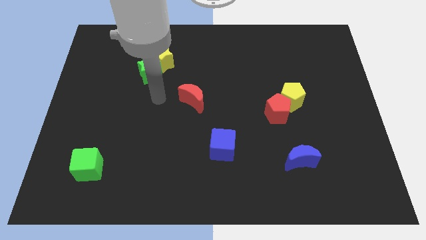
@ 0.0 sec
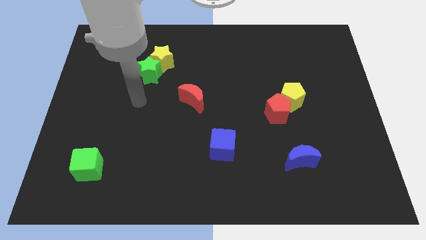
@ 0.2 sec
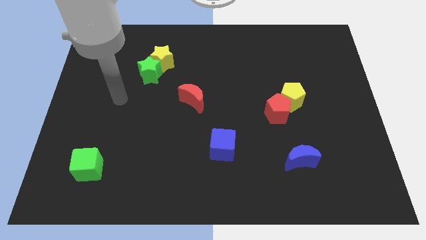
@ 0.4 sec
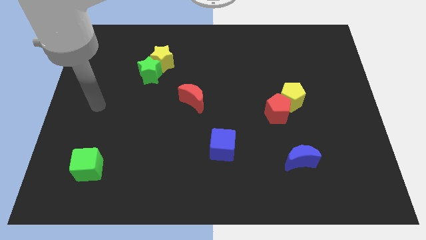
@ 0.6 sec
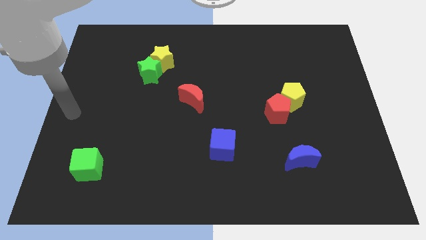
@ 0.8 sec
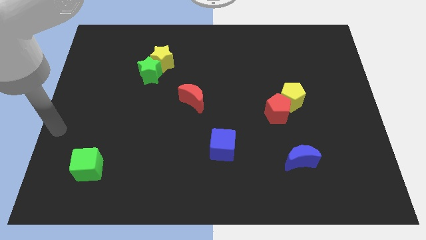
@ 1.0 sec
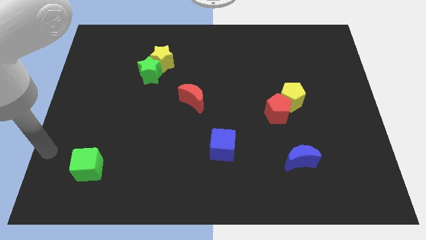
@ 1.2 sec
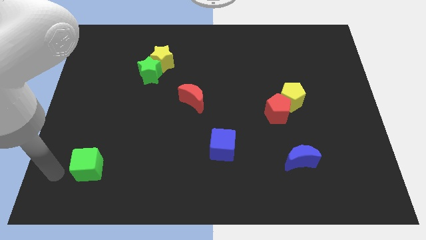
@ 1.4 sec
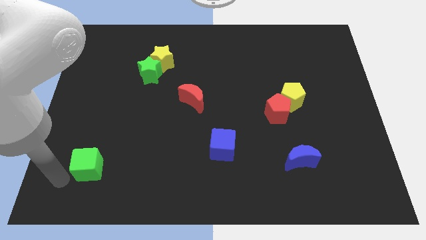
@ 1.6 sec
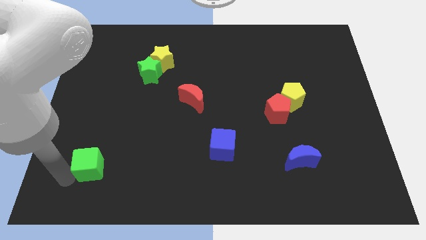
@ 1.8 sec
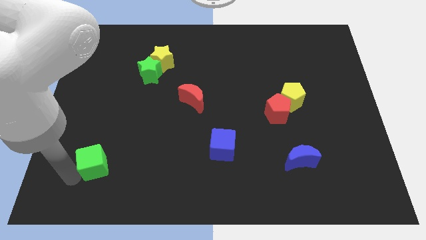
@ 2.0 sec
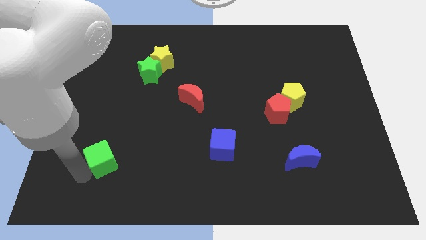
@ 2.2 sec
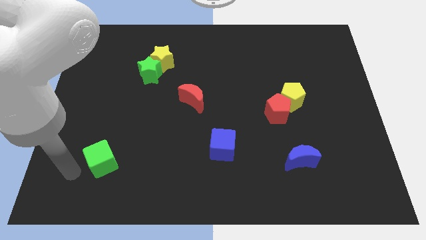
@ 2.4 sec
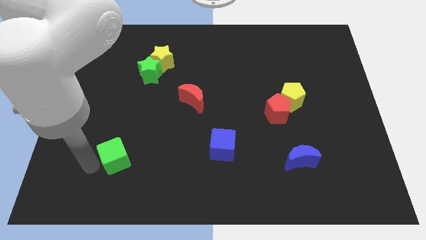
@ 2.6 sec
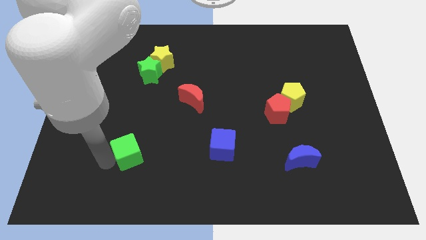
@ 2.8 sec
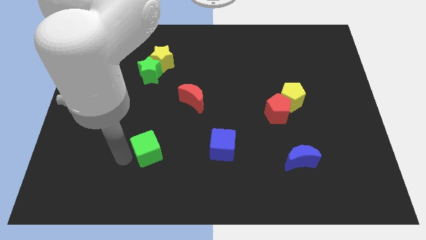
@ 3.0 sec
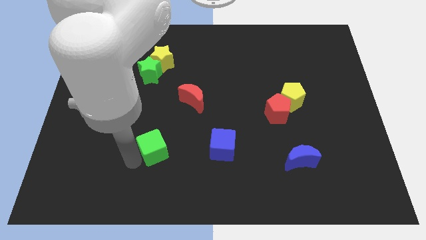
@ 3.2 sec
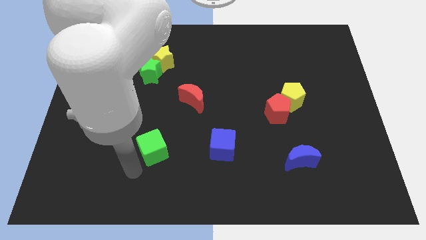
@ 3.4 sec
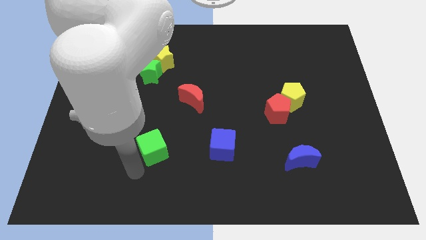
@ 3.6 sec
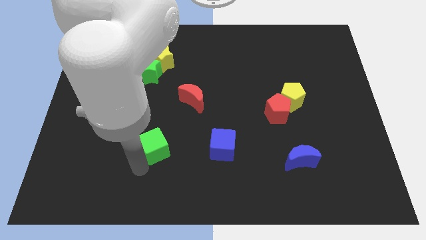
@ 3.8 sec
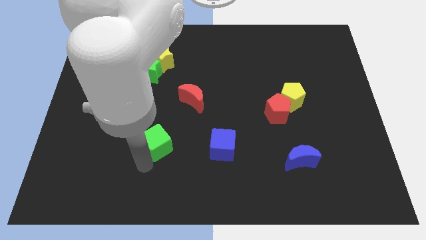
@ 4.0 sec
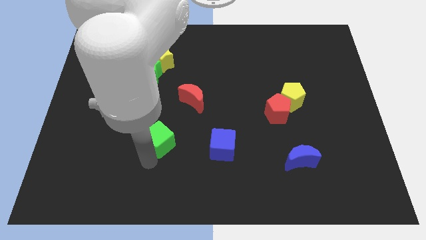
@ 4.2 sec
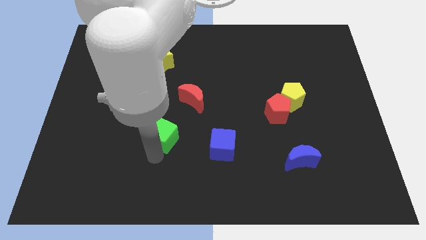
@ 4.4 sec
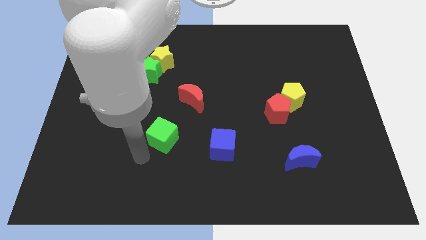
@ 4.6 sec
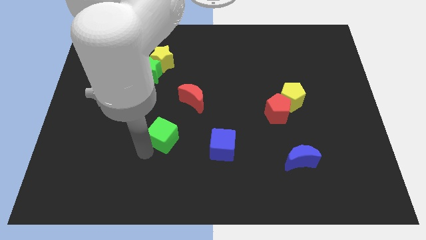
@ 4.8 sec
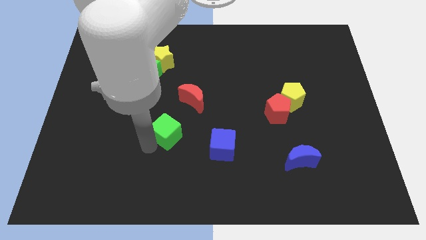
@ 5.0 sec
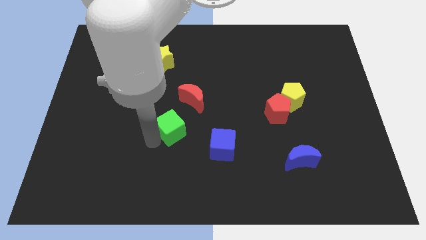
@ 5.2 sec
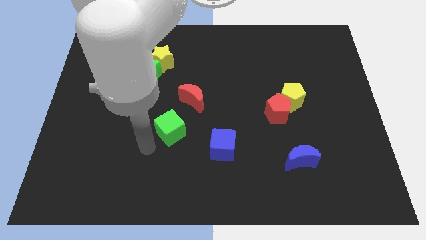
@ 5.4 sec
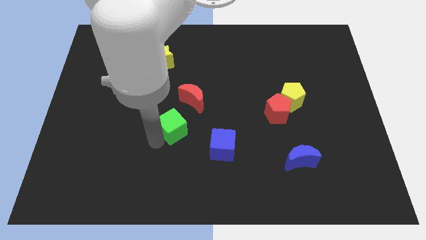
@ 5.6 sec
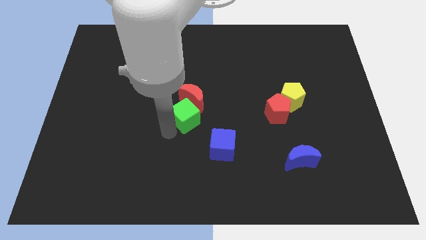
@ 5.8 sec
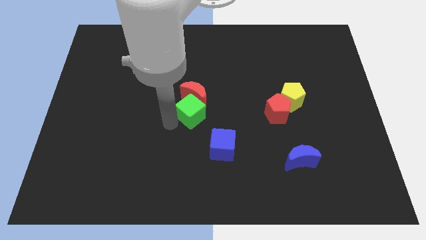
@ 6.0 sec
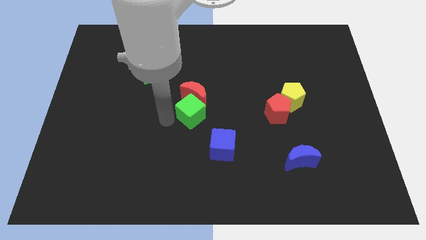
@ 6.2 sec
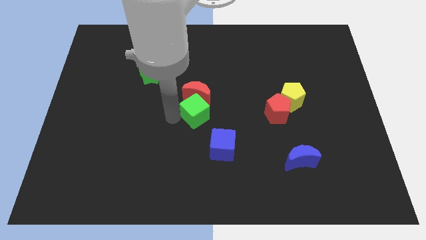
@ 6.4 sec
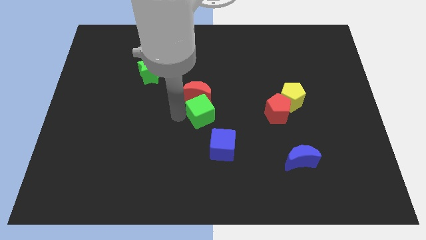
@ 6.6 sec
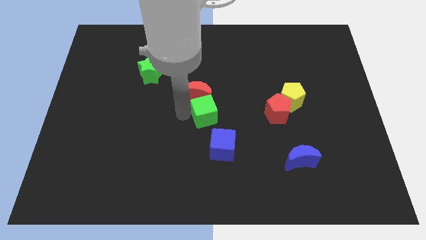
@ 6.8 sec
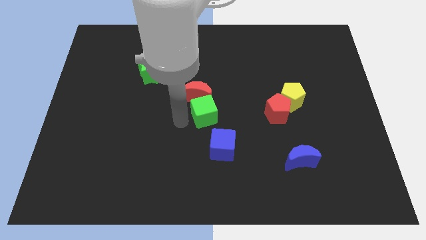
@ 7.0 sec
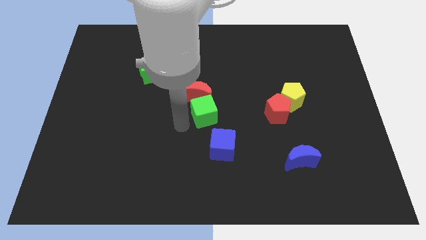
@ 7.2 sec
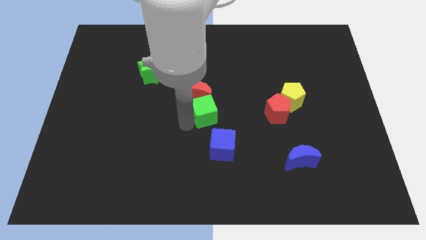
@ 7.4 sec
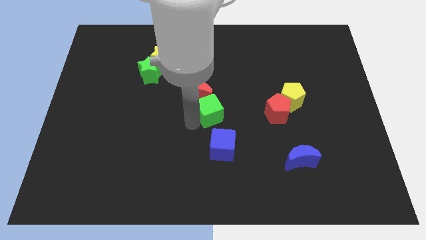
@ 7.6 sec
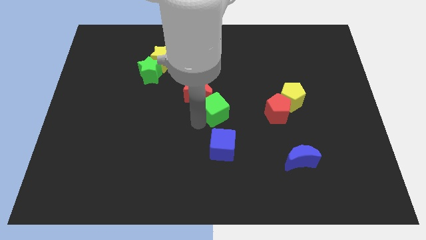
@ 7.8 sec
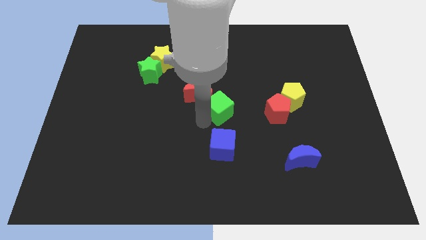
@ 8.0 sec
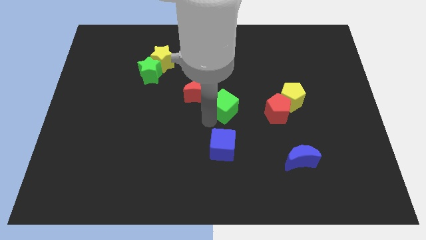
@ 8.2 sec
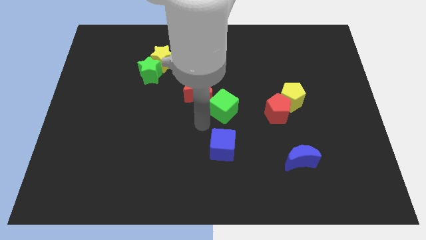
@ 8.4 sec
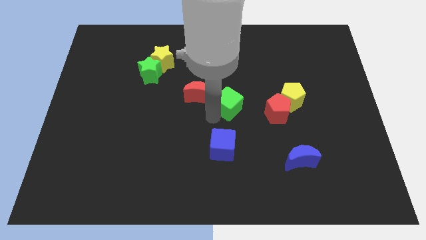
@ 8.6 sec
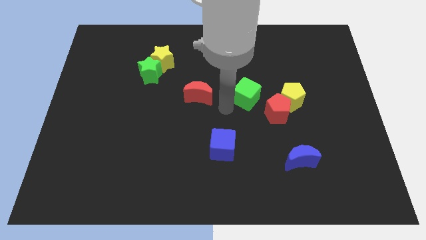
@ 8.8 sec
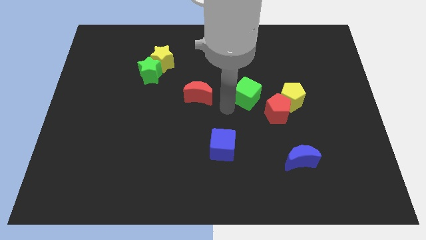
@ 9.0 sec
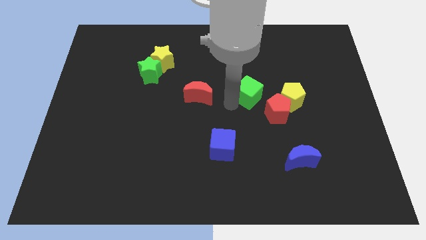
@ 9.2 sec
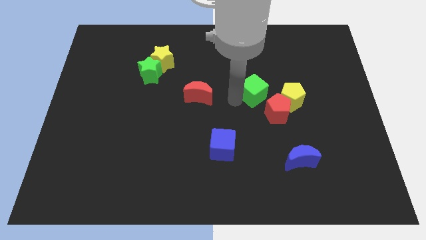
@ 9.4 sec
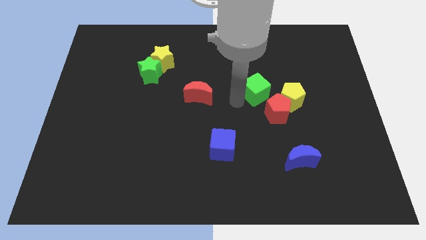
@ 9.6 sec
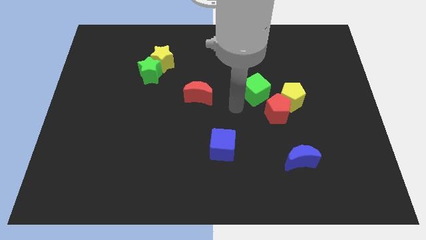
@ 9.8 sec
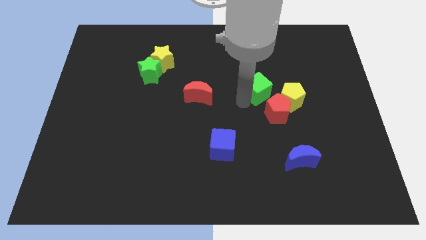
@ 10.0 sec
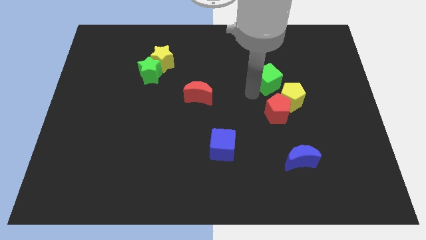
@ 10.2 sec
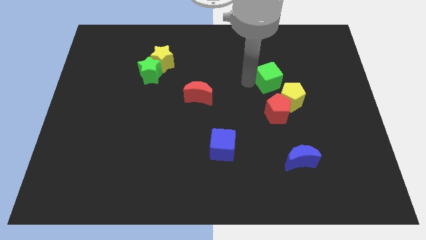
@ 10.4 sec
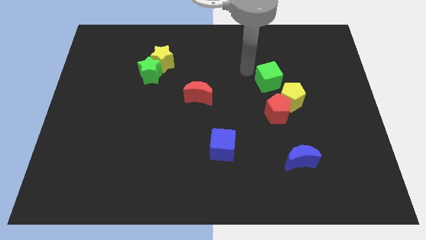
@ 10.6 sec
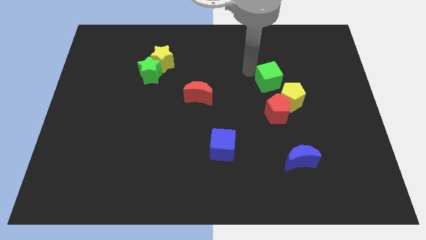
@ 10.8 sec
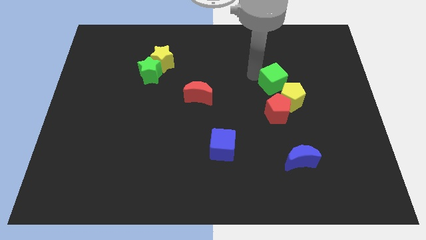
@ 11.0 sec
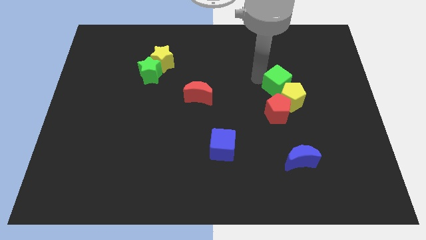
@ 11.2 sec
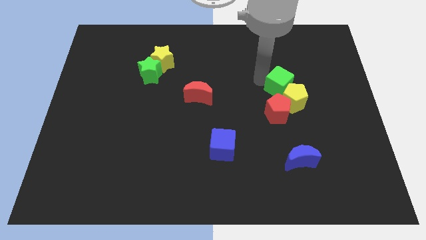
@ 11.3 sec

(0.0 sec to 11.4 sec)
move the green cube to the top right side of the red pentagon
